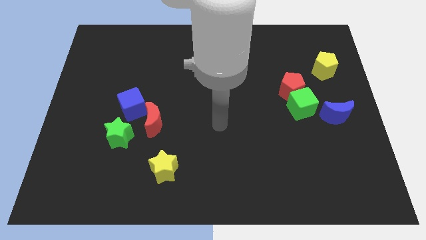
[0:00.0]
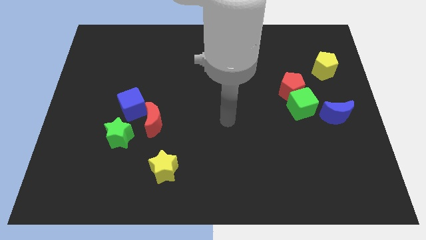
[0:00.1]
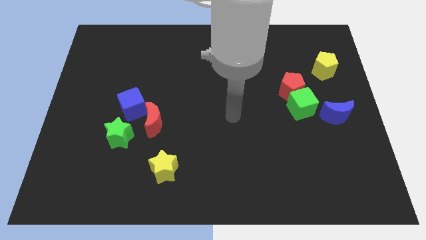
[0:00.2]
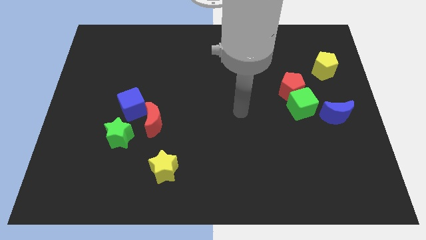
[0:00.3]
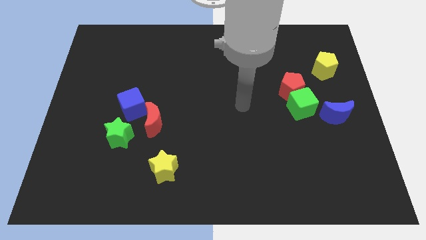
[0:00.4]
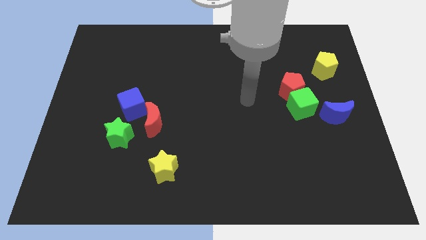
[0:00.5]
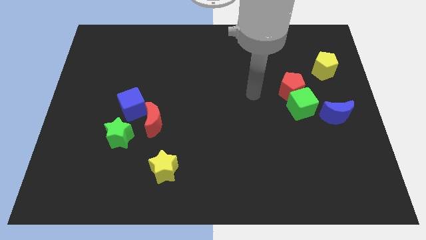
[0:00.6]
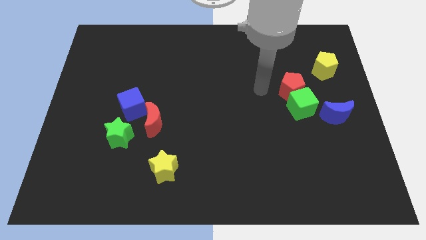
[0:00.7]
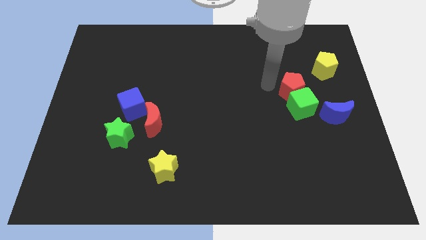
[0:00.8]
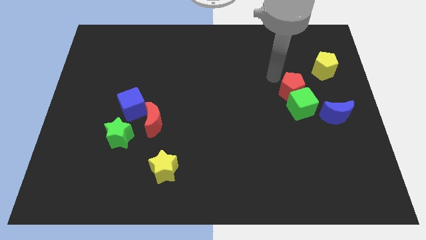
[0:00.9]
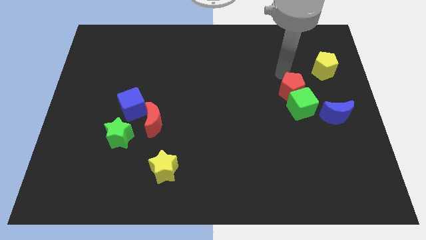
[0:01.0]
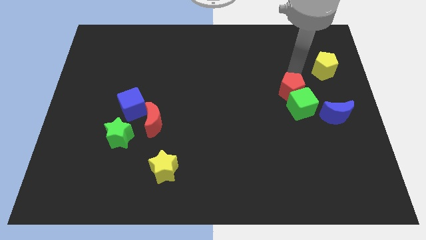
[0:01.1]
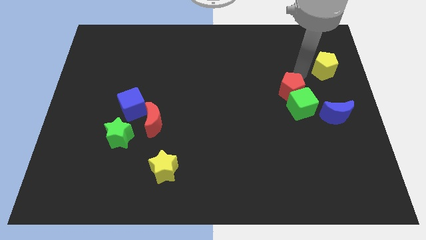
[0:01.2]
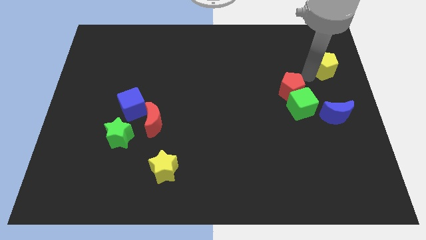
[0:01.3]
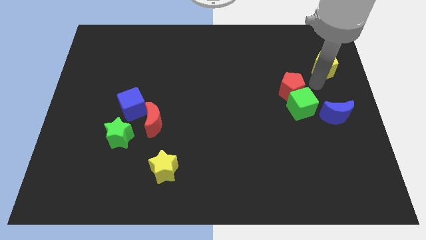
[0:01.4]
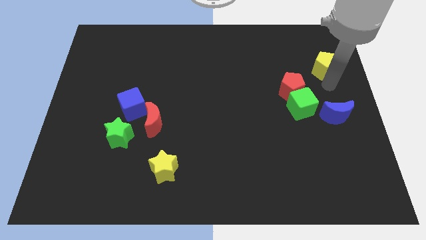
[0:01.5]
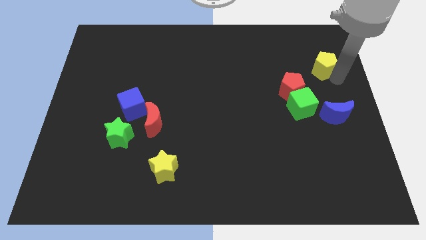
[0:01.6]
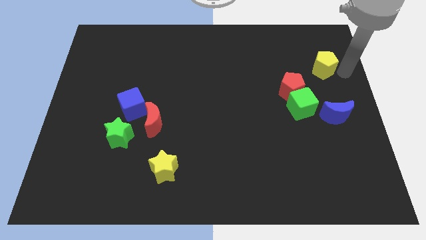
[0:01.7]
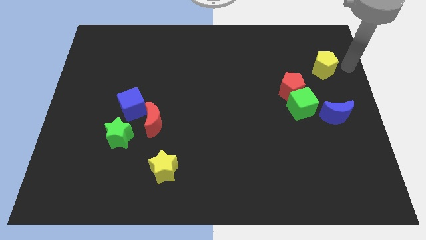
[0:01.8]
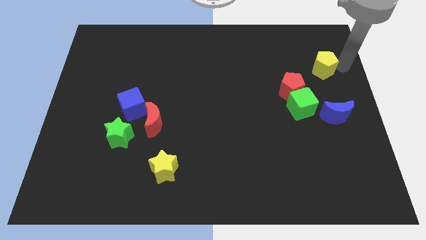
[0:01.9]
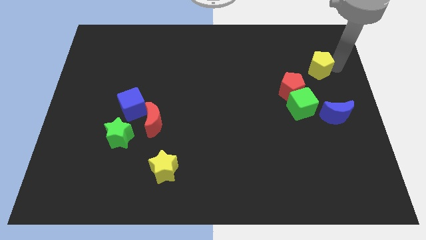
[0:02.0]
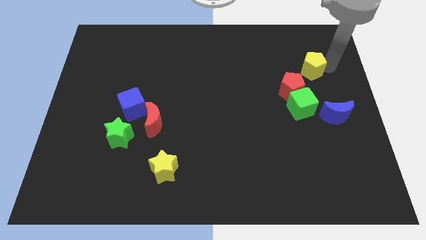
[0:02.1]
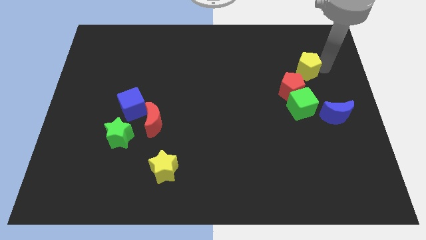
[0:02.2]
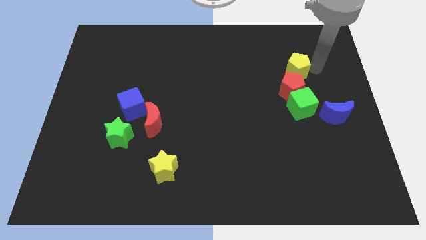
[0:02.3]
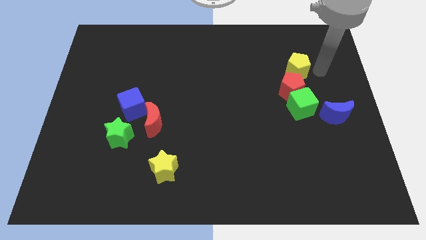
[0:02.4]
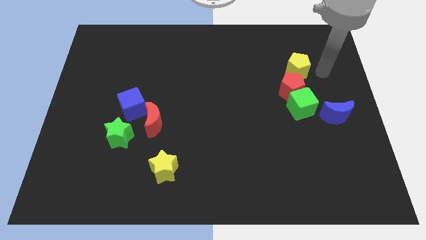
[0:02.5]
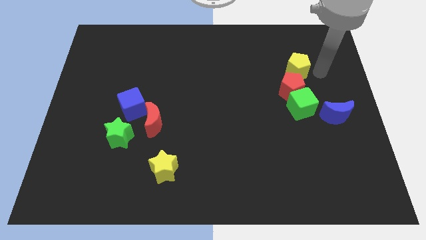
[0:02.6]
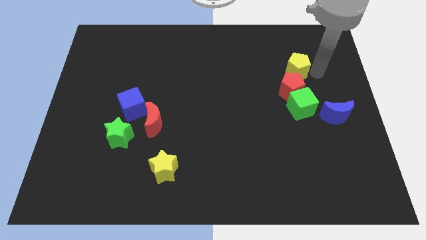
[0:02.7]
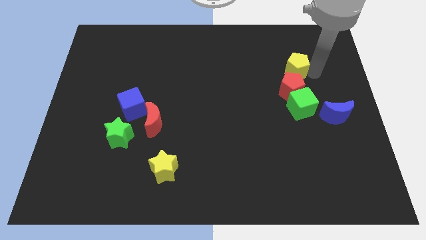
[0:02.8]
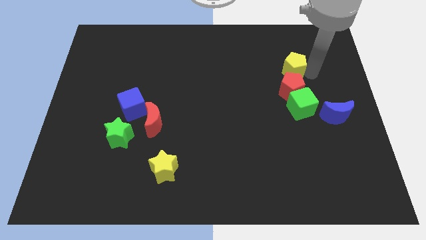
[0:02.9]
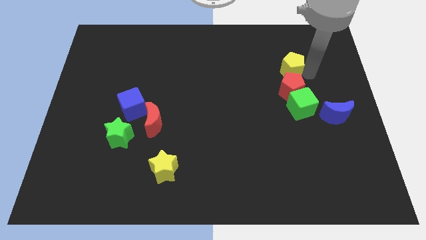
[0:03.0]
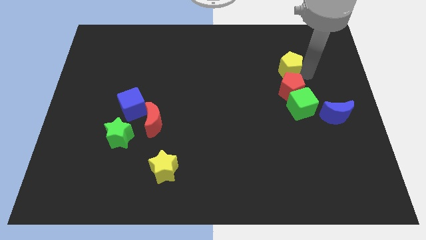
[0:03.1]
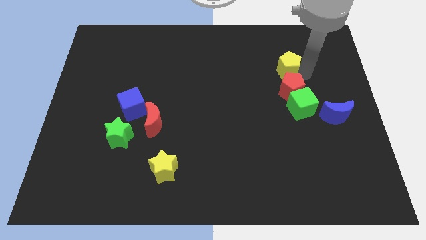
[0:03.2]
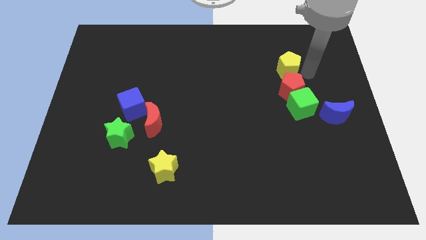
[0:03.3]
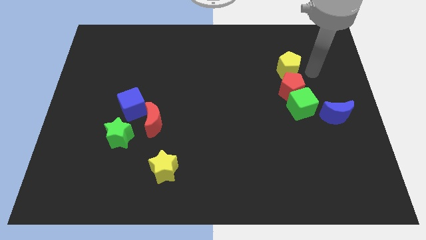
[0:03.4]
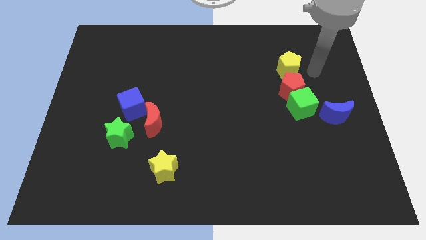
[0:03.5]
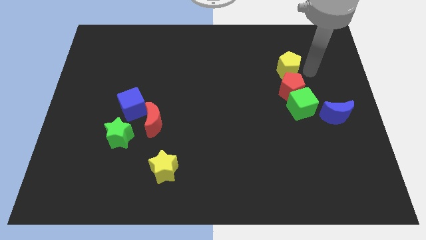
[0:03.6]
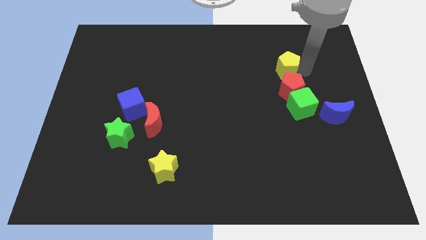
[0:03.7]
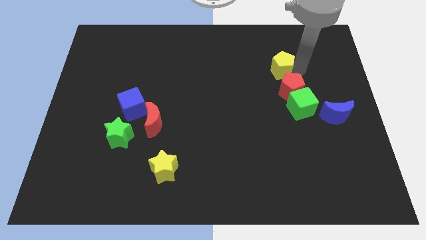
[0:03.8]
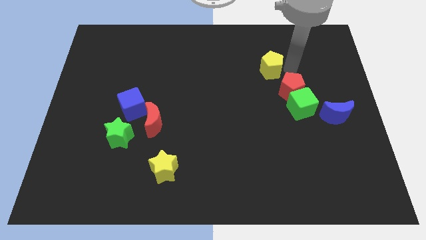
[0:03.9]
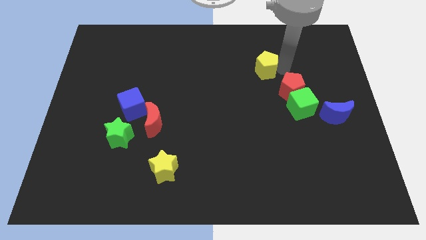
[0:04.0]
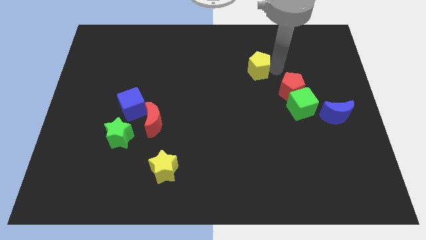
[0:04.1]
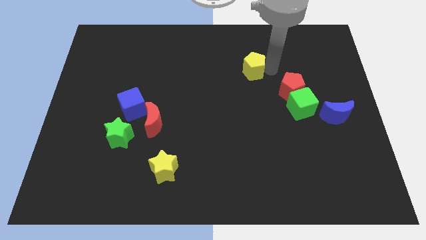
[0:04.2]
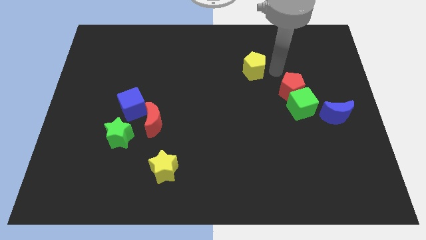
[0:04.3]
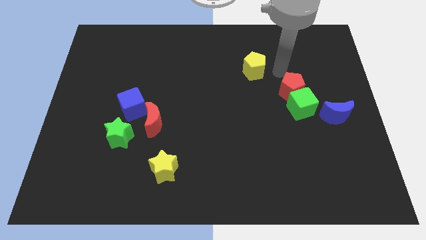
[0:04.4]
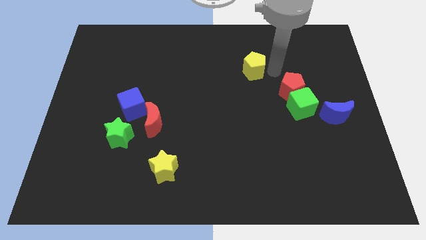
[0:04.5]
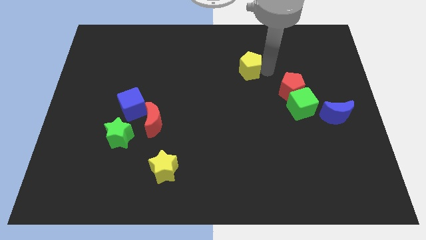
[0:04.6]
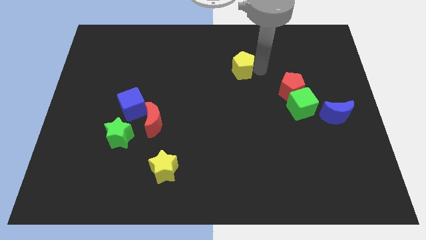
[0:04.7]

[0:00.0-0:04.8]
push the yellow pentagon left

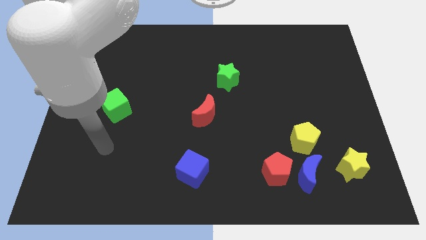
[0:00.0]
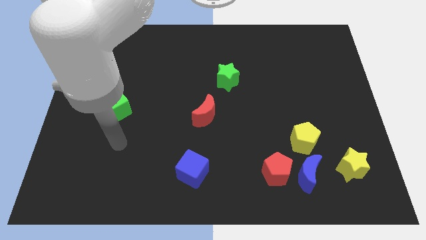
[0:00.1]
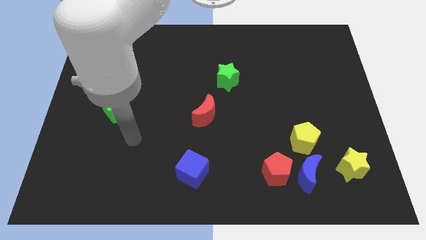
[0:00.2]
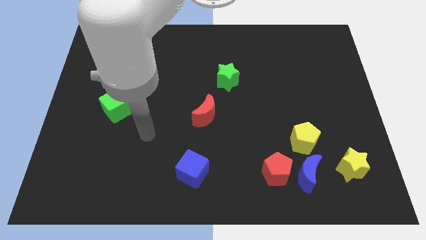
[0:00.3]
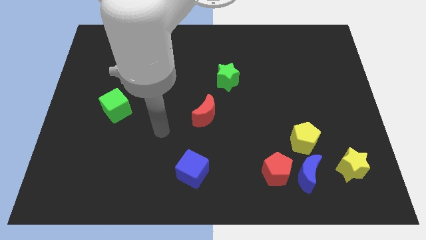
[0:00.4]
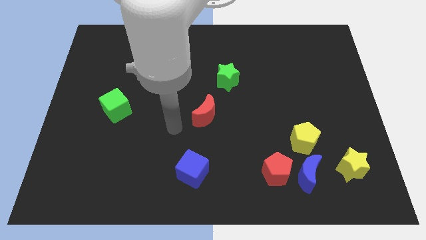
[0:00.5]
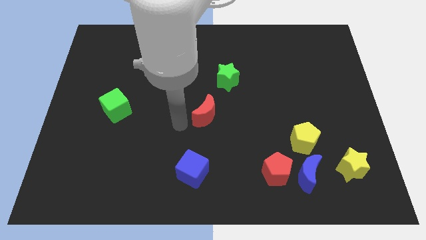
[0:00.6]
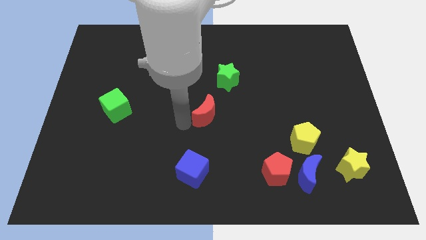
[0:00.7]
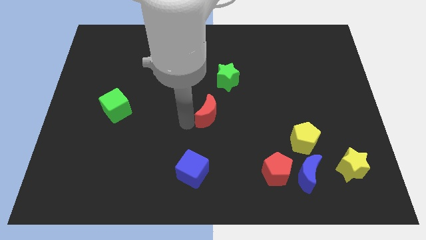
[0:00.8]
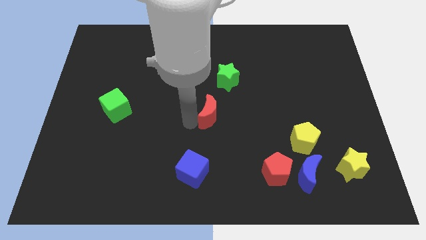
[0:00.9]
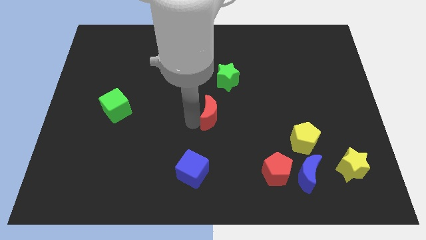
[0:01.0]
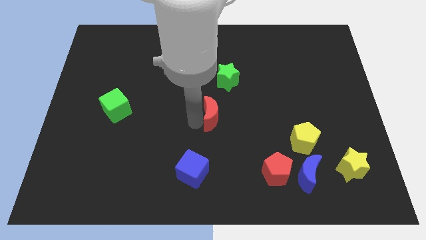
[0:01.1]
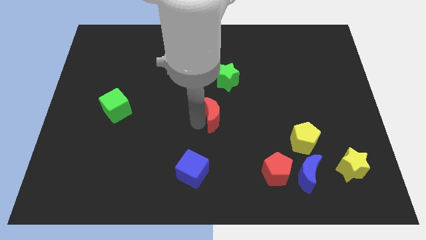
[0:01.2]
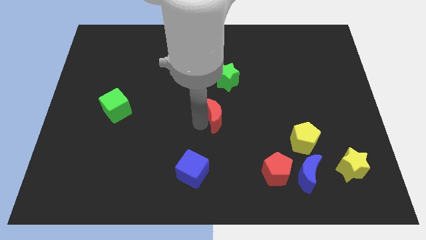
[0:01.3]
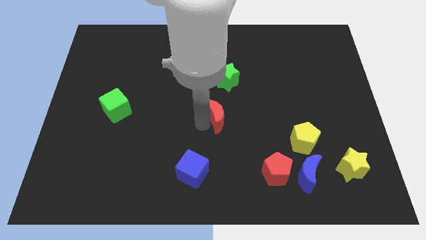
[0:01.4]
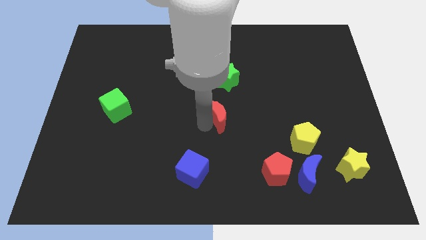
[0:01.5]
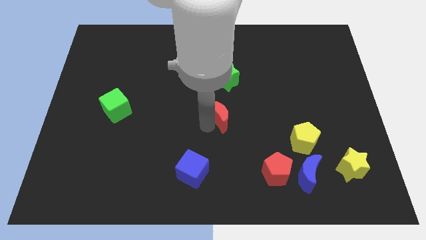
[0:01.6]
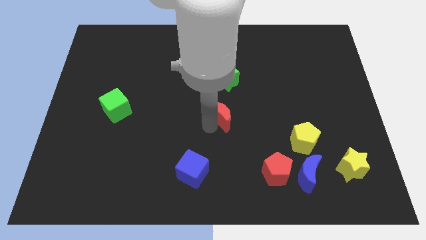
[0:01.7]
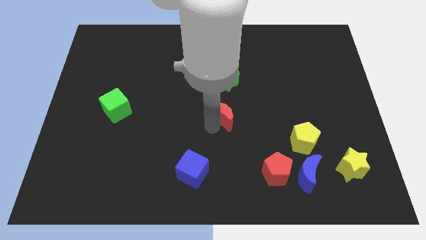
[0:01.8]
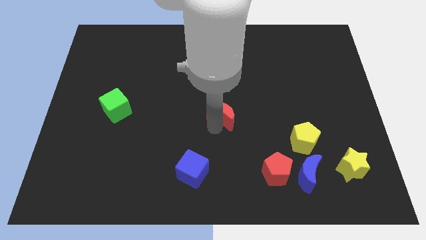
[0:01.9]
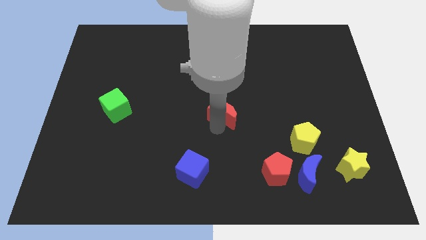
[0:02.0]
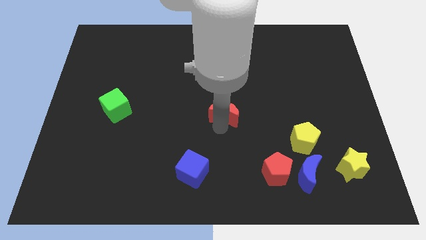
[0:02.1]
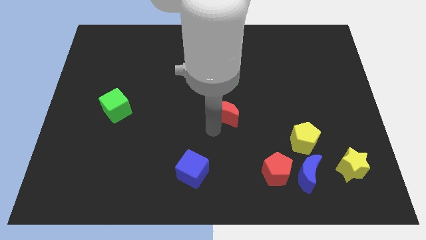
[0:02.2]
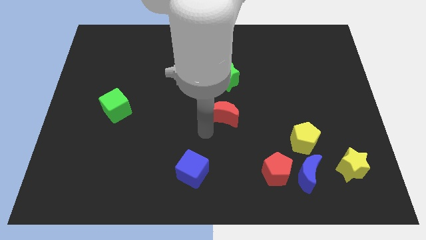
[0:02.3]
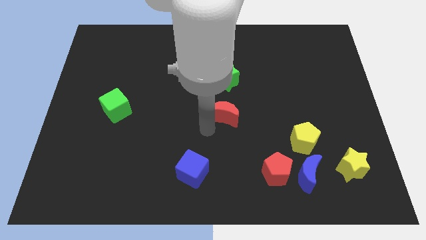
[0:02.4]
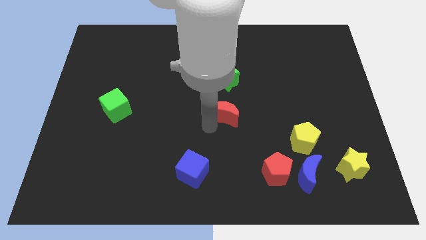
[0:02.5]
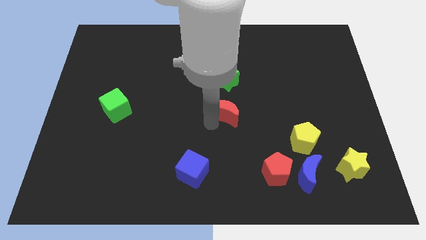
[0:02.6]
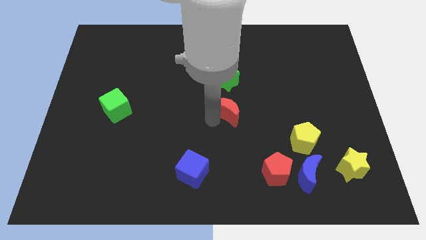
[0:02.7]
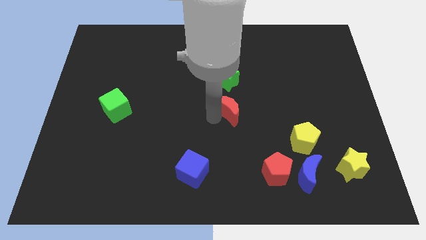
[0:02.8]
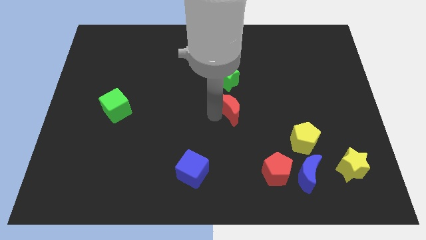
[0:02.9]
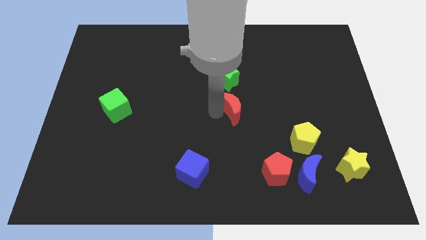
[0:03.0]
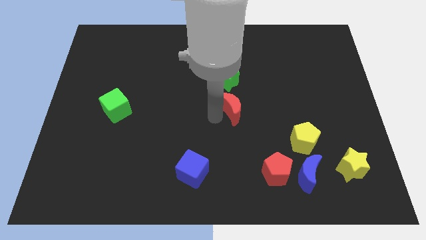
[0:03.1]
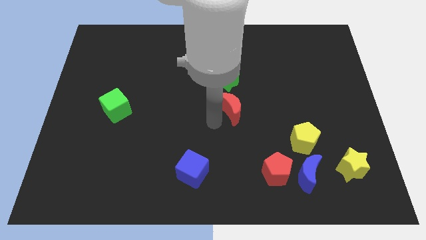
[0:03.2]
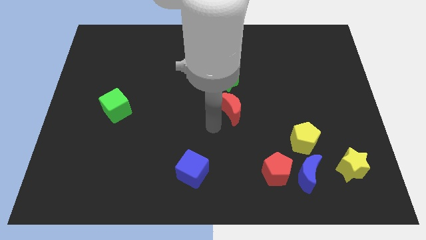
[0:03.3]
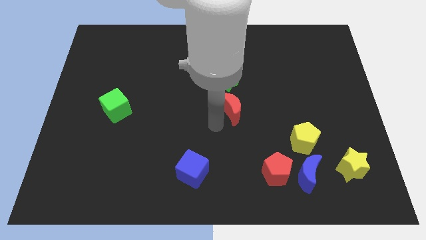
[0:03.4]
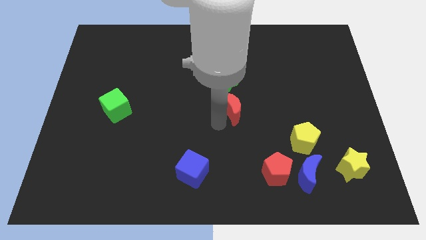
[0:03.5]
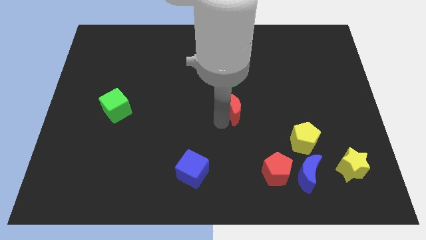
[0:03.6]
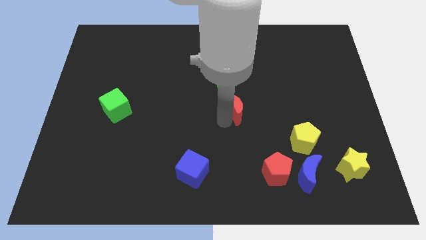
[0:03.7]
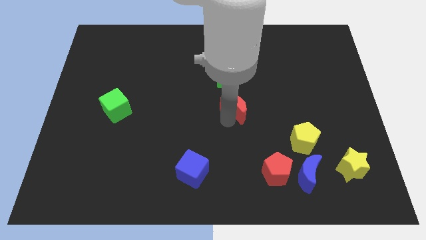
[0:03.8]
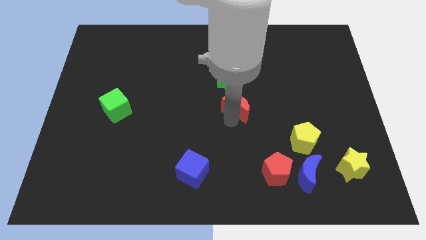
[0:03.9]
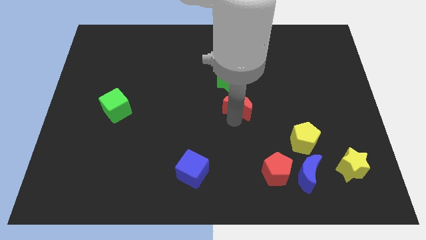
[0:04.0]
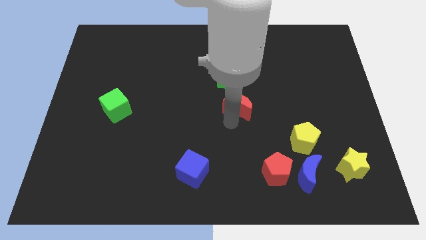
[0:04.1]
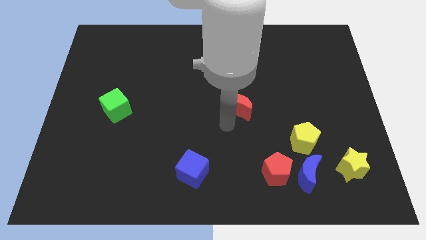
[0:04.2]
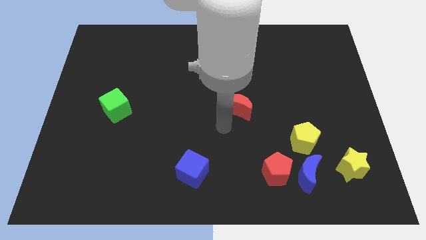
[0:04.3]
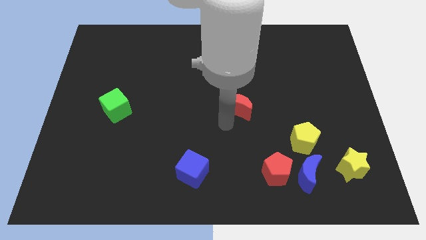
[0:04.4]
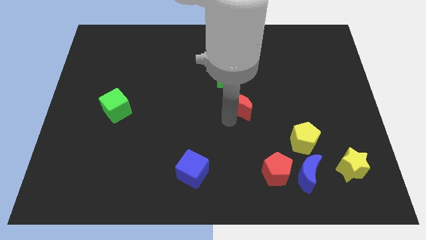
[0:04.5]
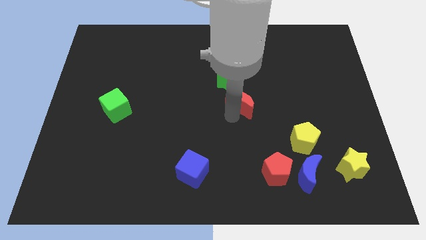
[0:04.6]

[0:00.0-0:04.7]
slightly push the red moon upwards and to the right diagonally
